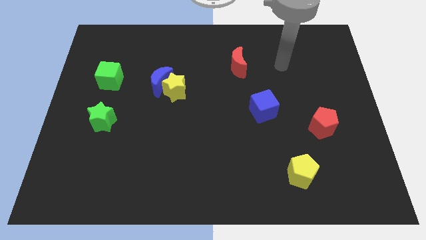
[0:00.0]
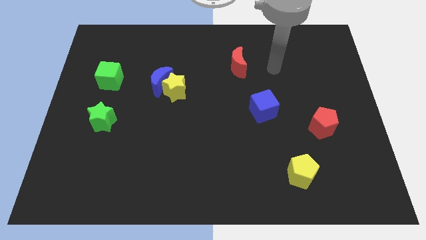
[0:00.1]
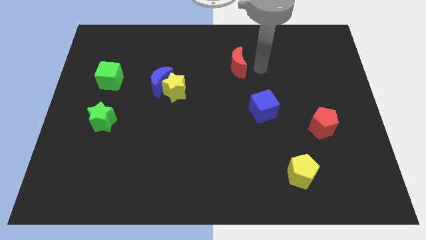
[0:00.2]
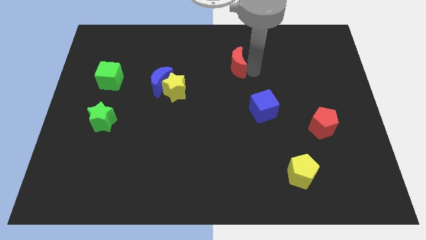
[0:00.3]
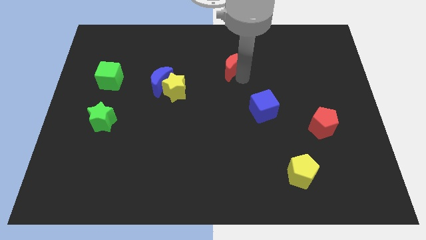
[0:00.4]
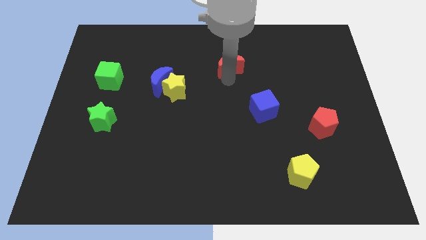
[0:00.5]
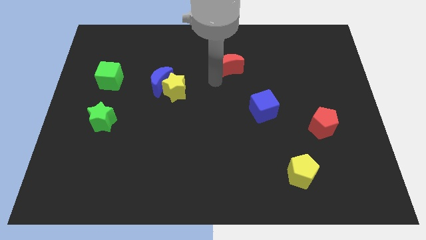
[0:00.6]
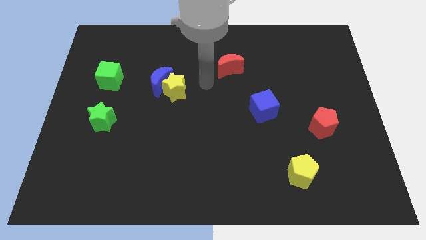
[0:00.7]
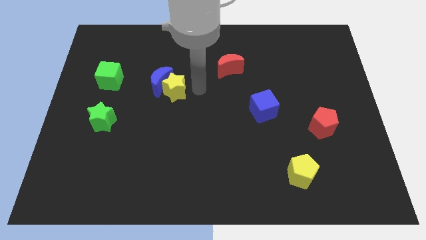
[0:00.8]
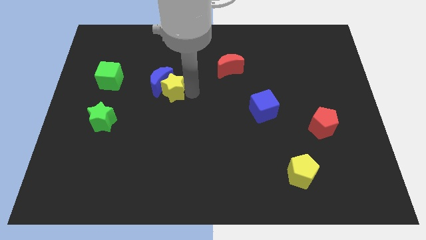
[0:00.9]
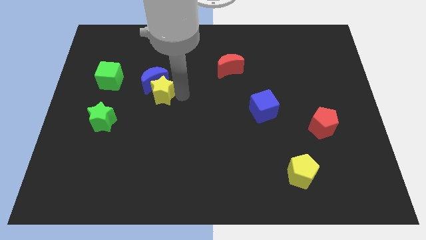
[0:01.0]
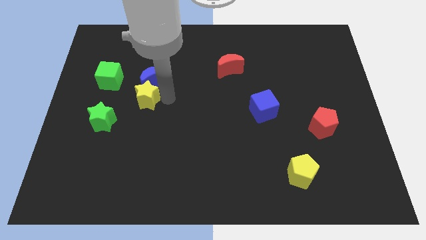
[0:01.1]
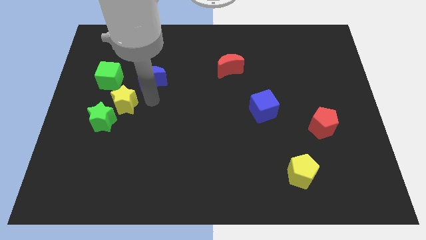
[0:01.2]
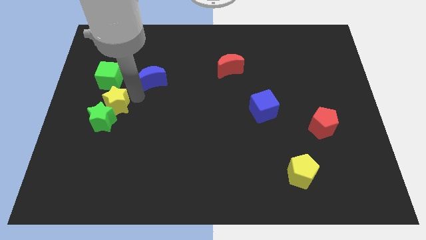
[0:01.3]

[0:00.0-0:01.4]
separate the blue moon from the yellow star

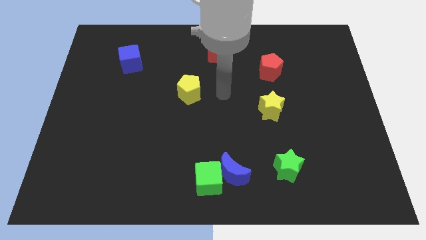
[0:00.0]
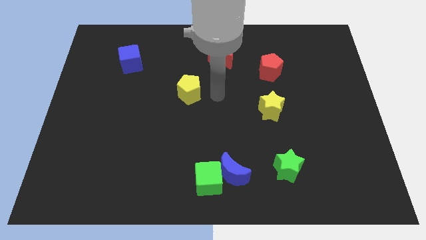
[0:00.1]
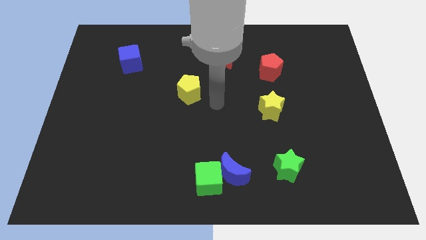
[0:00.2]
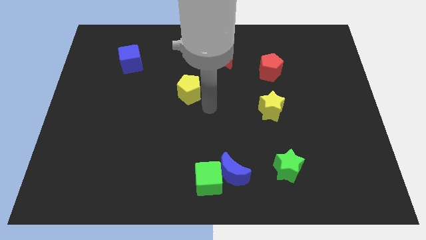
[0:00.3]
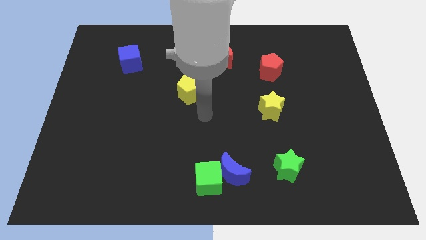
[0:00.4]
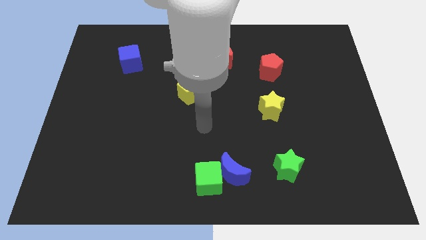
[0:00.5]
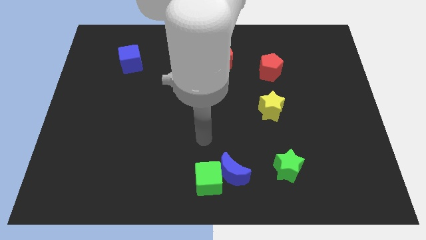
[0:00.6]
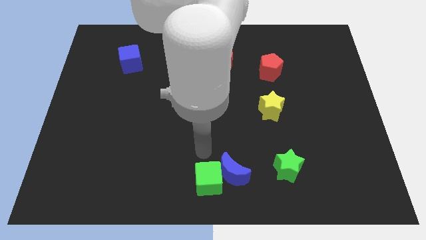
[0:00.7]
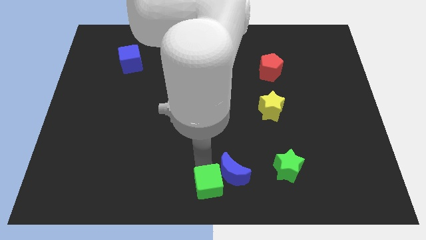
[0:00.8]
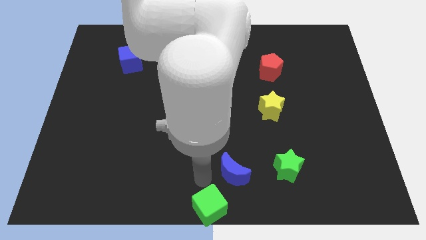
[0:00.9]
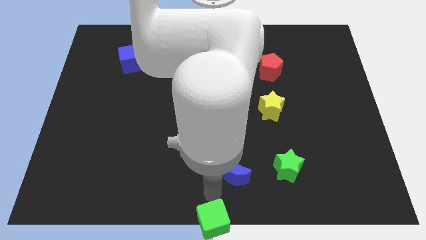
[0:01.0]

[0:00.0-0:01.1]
separate the blue moon from the green cube

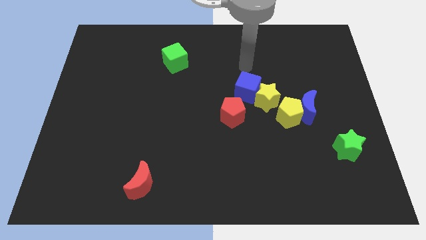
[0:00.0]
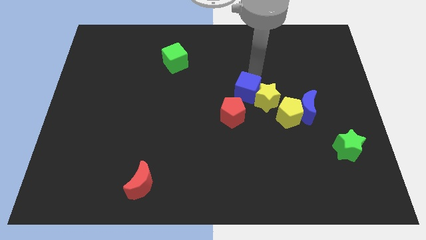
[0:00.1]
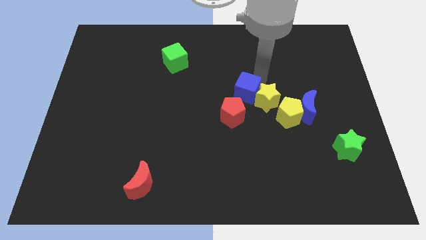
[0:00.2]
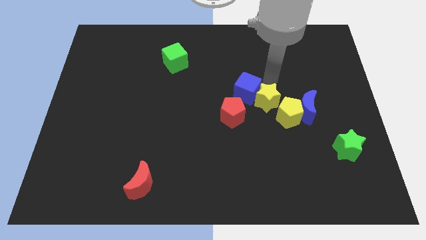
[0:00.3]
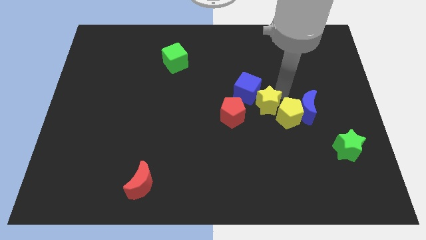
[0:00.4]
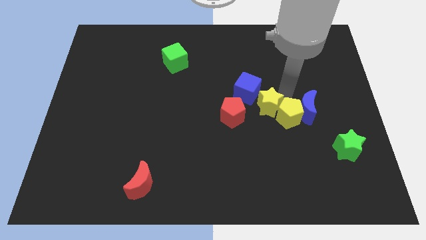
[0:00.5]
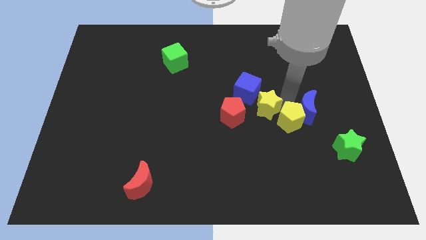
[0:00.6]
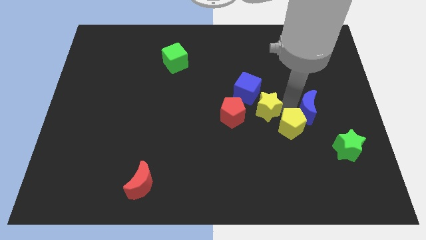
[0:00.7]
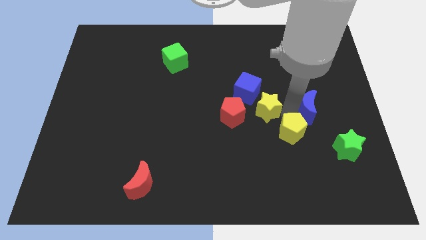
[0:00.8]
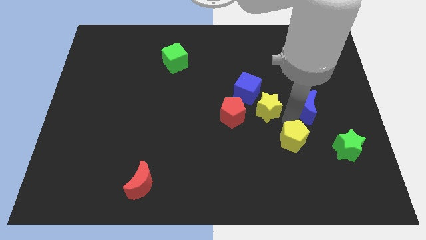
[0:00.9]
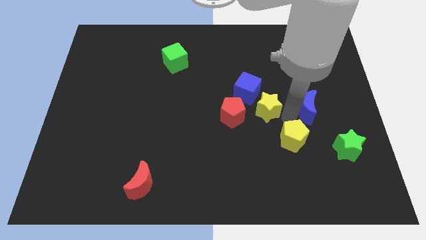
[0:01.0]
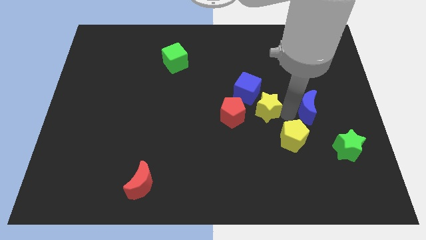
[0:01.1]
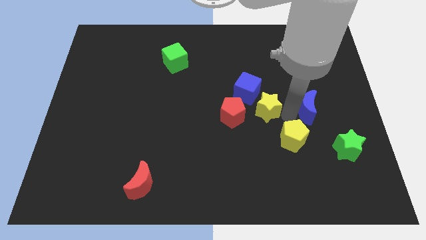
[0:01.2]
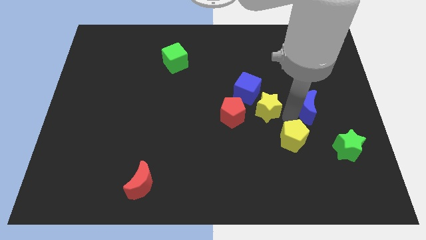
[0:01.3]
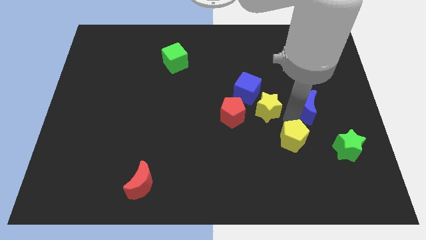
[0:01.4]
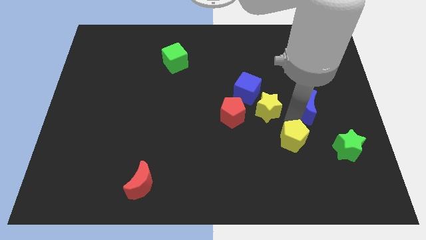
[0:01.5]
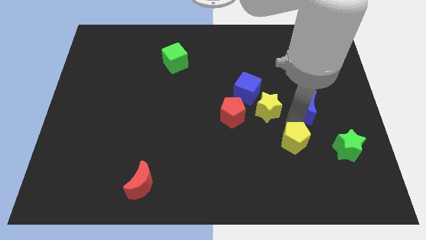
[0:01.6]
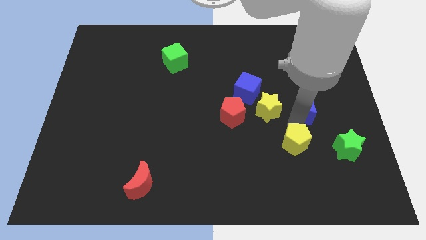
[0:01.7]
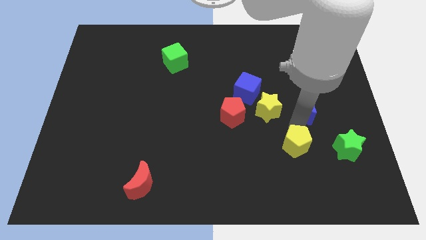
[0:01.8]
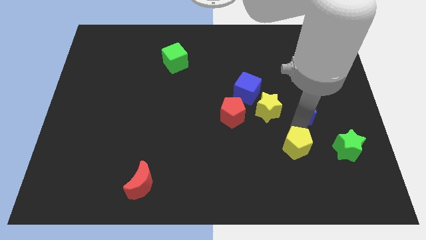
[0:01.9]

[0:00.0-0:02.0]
separate the yellow pentagon from the blue moon and yellow star

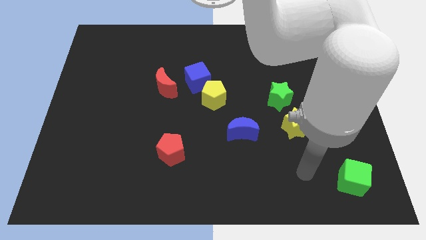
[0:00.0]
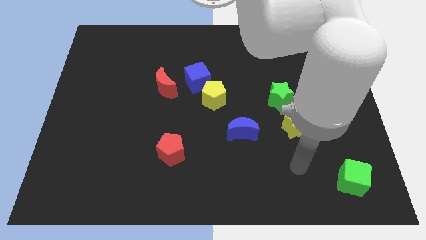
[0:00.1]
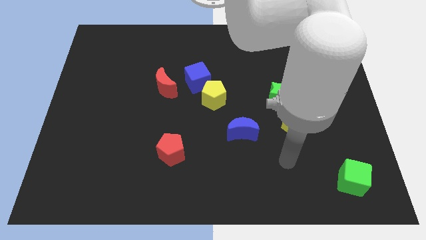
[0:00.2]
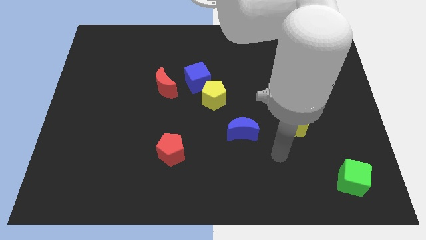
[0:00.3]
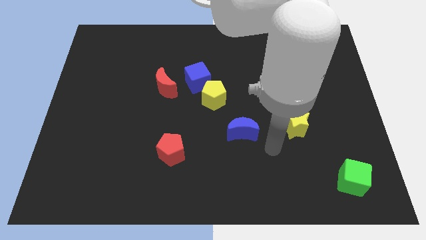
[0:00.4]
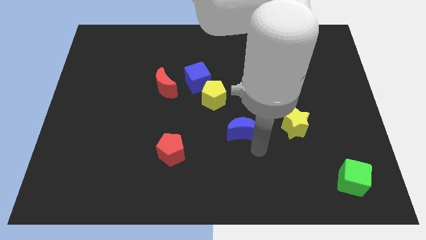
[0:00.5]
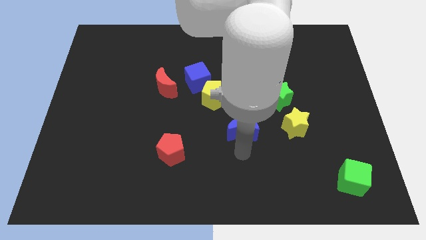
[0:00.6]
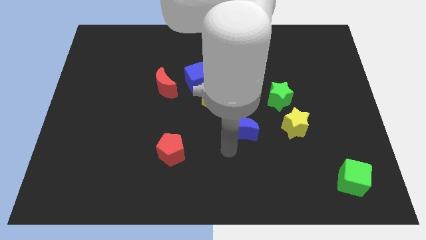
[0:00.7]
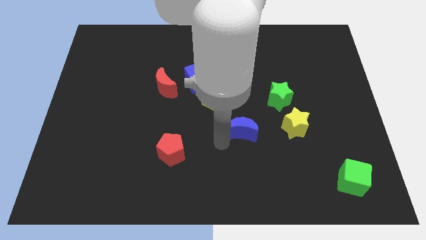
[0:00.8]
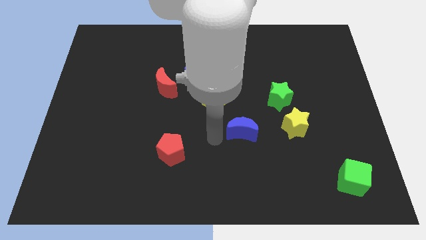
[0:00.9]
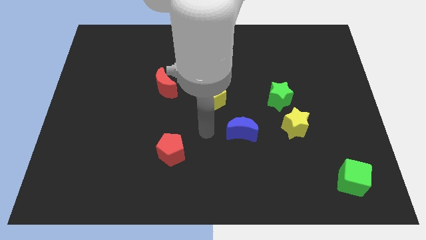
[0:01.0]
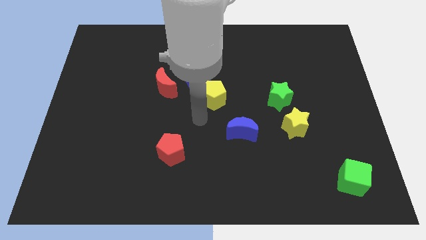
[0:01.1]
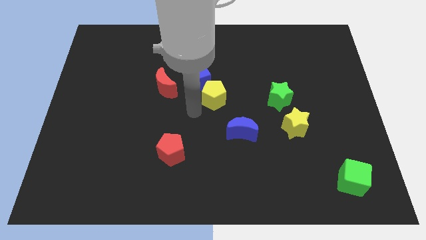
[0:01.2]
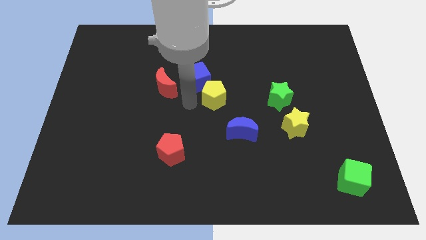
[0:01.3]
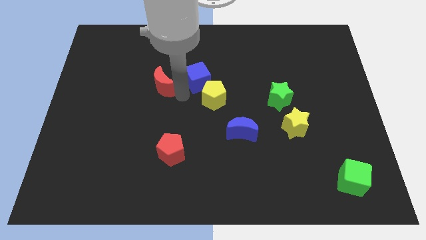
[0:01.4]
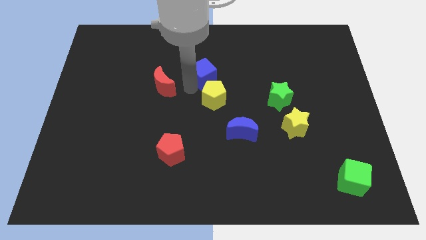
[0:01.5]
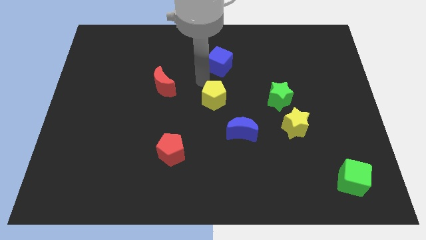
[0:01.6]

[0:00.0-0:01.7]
pull the yellow pentagon apart from the blue cube

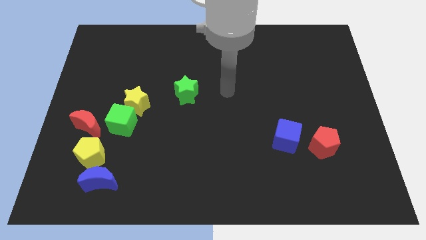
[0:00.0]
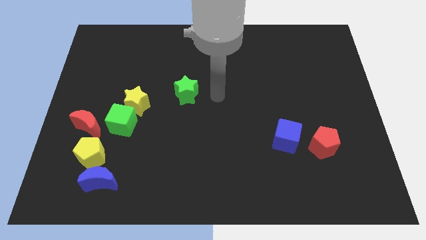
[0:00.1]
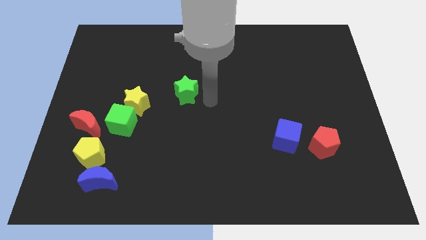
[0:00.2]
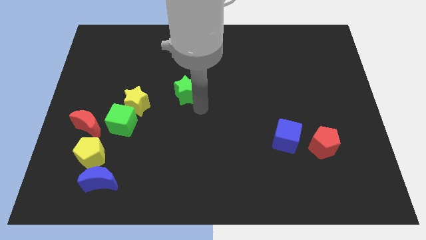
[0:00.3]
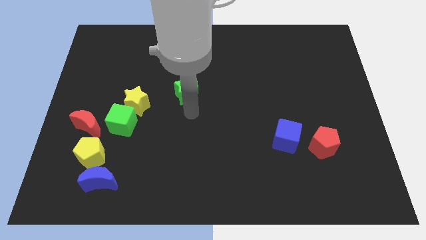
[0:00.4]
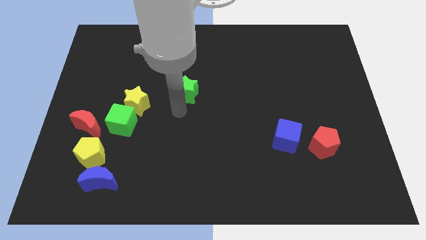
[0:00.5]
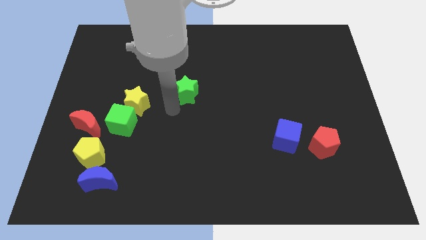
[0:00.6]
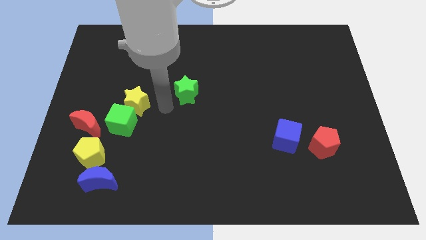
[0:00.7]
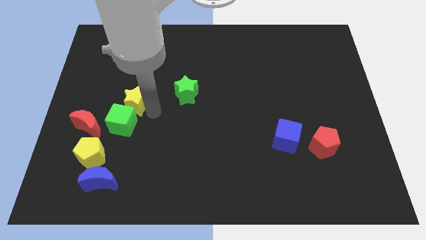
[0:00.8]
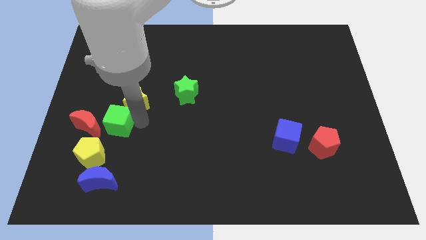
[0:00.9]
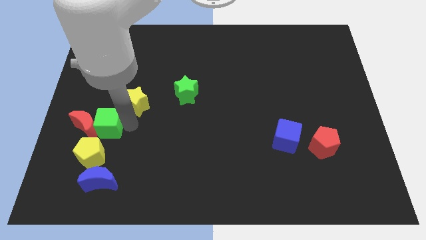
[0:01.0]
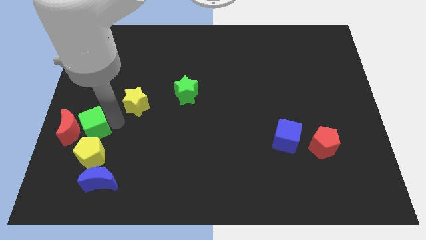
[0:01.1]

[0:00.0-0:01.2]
pull the yellow star apart from the green cube

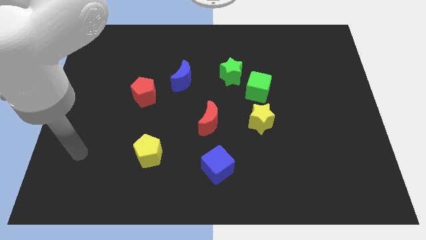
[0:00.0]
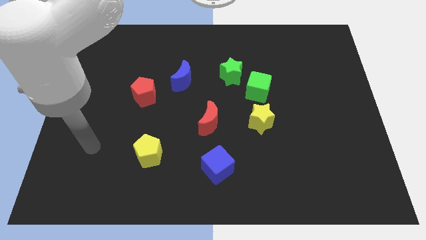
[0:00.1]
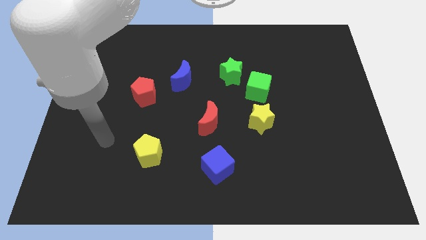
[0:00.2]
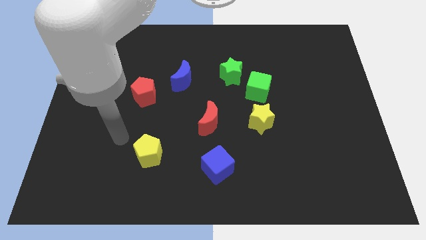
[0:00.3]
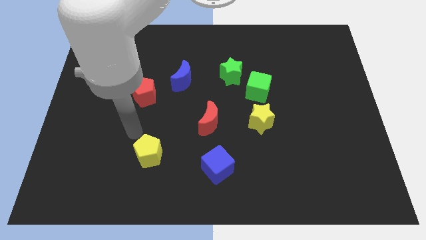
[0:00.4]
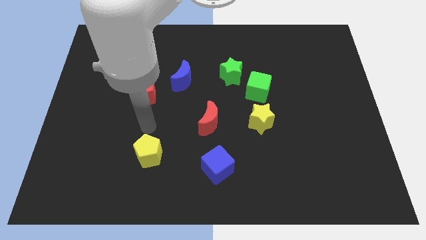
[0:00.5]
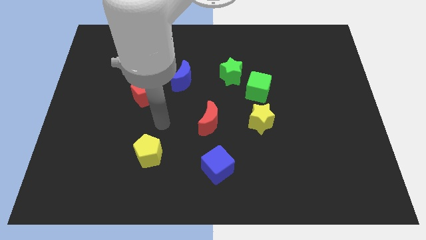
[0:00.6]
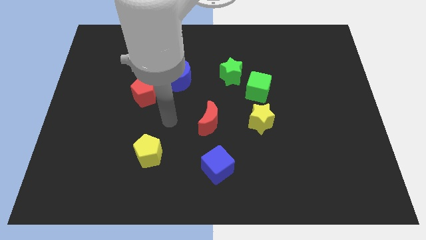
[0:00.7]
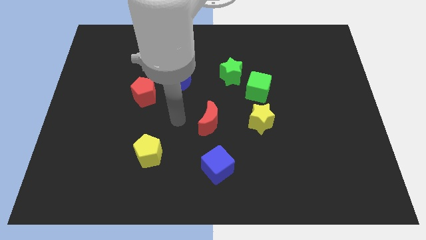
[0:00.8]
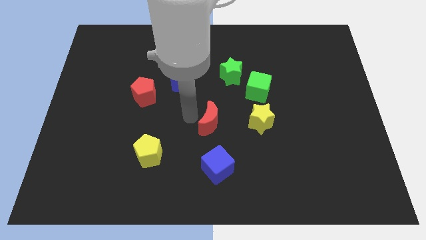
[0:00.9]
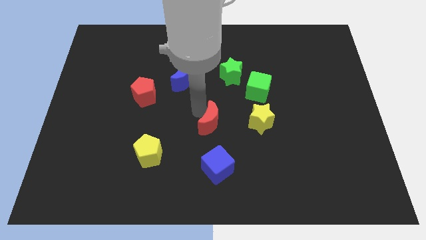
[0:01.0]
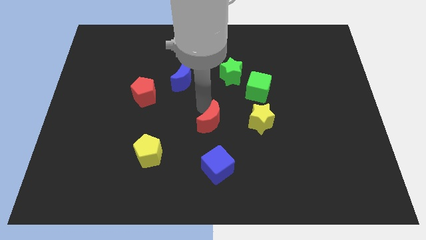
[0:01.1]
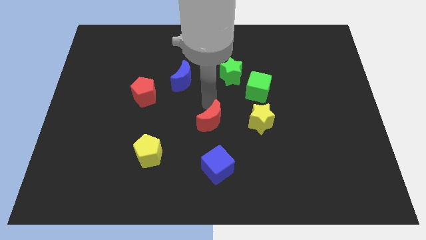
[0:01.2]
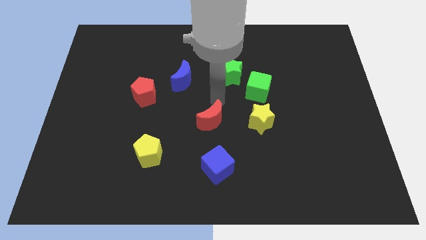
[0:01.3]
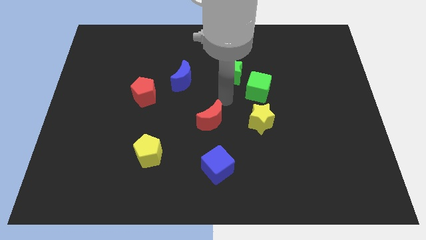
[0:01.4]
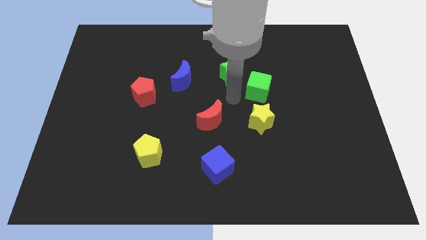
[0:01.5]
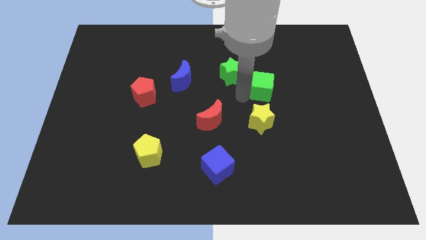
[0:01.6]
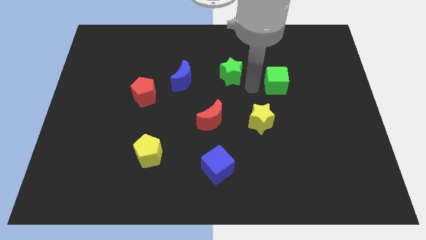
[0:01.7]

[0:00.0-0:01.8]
move the green star away from the green cube

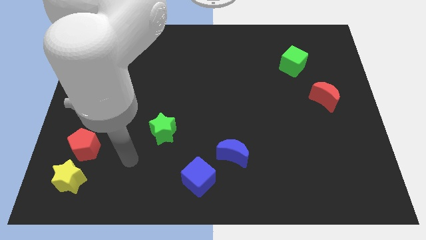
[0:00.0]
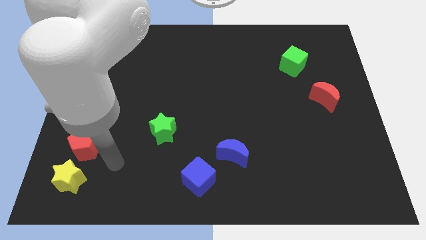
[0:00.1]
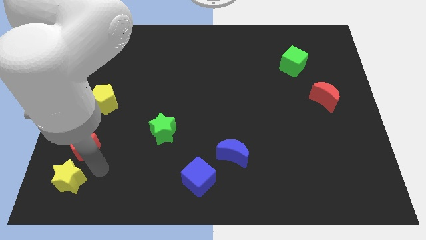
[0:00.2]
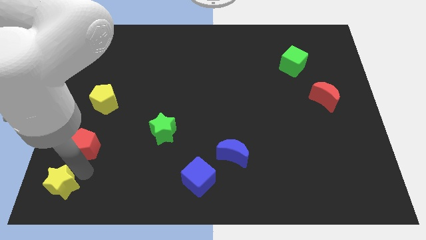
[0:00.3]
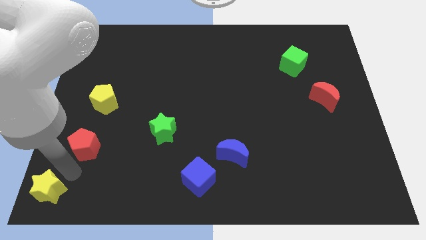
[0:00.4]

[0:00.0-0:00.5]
pull the red pentagon apart from the yellow star
